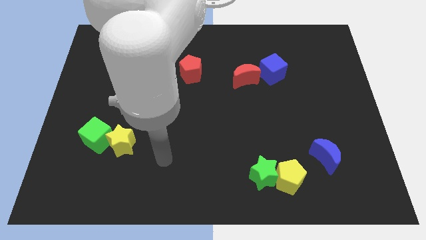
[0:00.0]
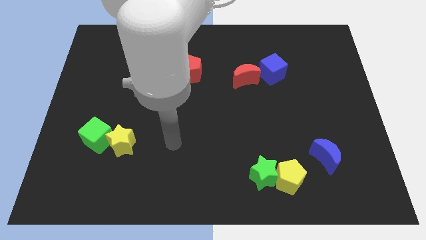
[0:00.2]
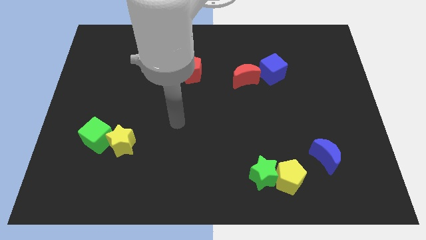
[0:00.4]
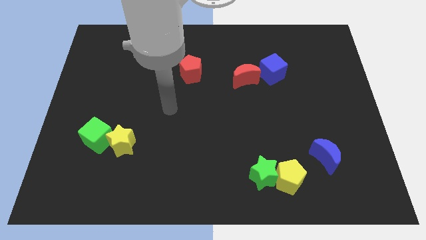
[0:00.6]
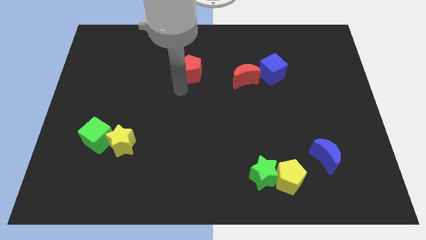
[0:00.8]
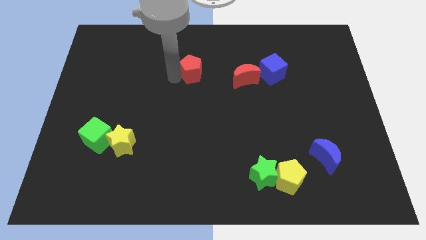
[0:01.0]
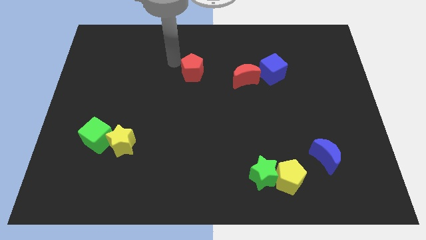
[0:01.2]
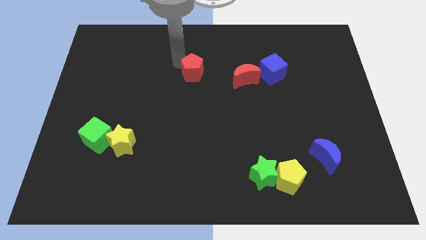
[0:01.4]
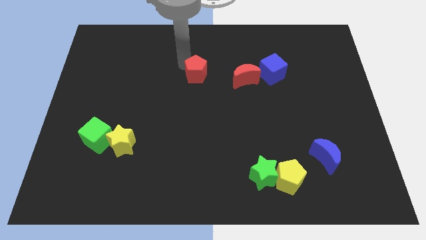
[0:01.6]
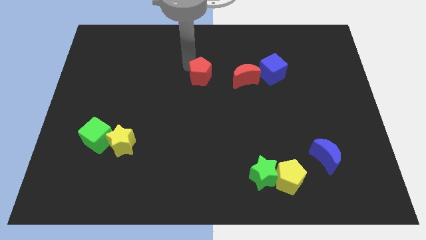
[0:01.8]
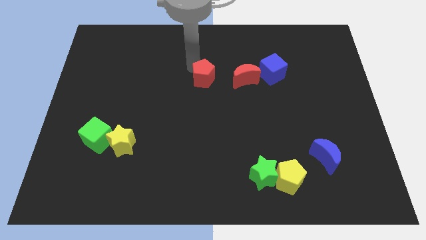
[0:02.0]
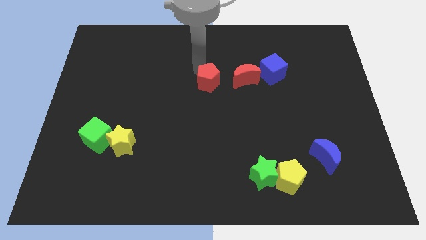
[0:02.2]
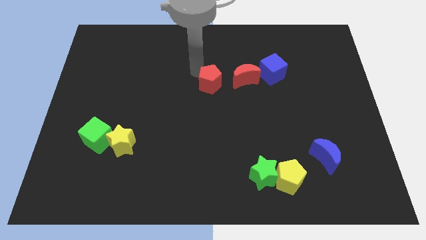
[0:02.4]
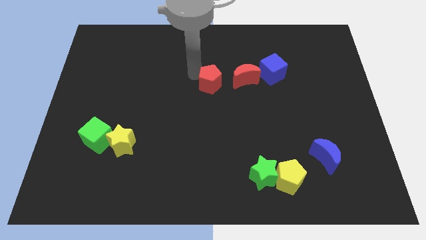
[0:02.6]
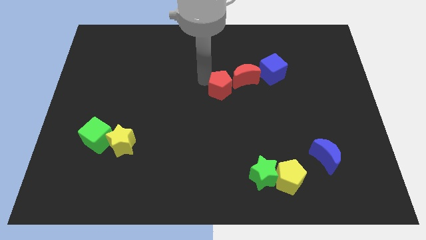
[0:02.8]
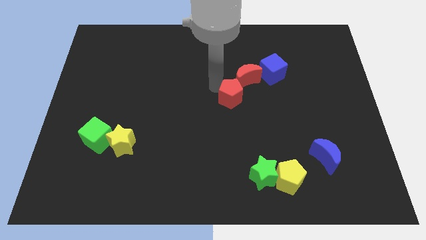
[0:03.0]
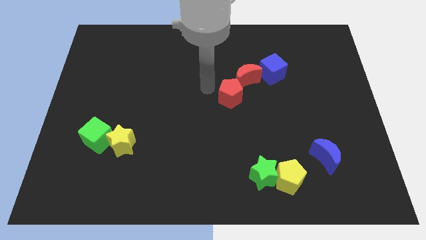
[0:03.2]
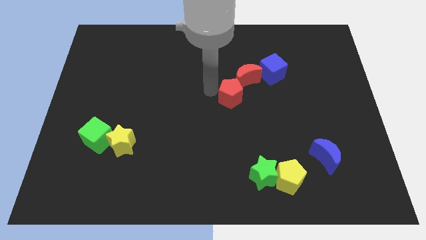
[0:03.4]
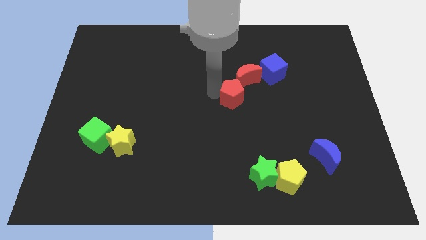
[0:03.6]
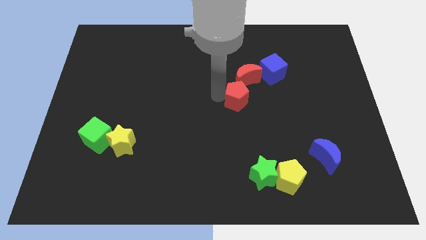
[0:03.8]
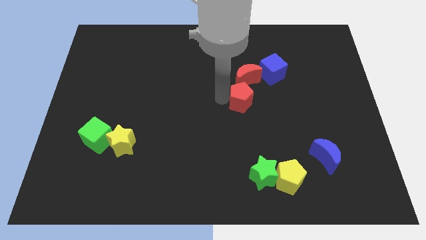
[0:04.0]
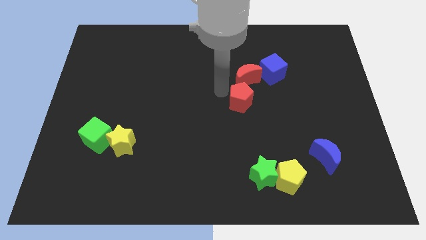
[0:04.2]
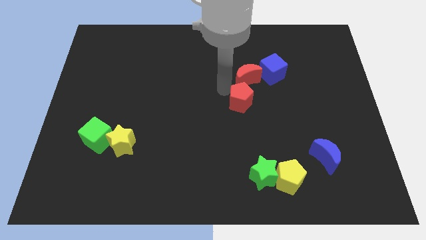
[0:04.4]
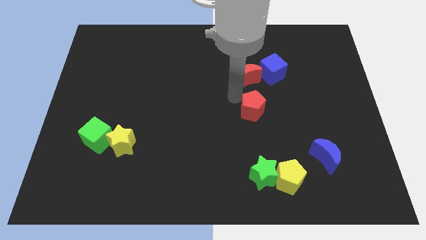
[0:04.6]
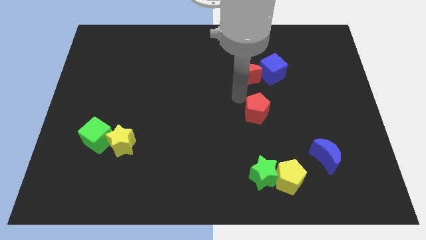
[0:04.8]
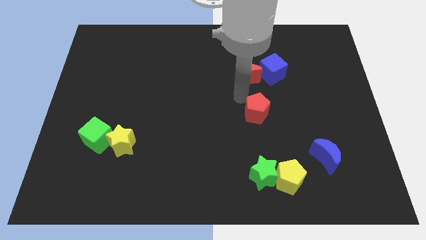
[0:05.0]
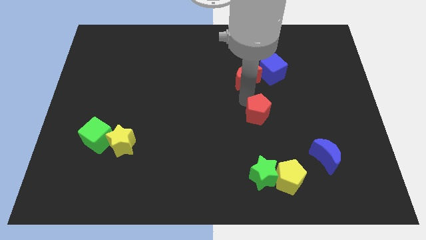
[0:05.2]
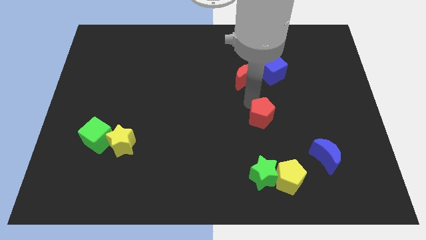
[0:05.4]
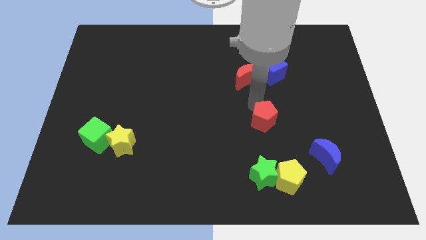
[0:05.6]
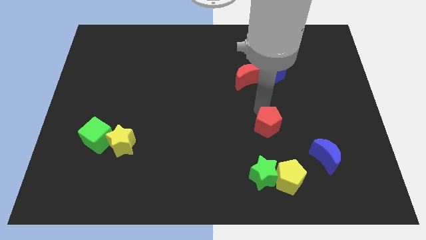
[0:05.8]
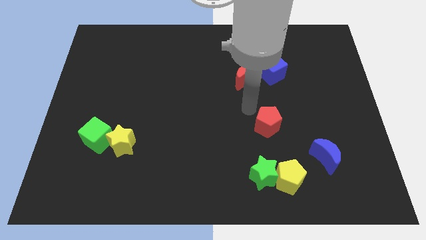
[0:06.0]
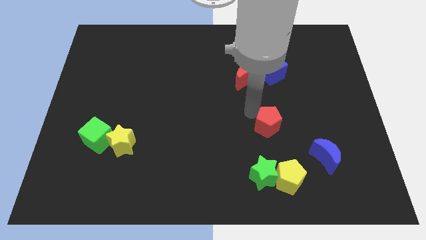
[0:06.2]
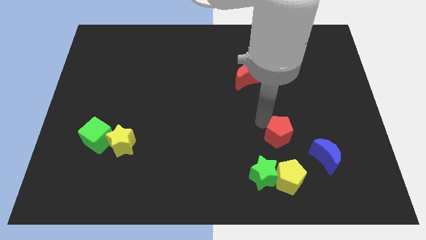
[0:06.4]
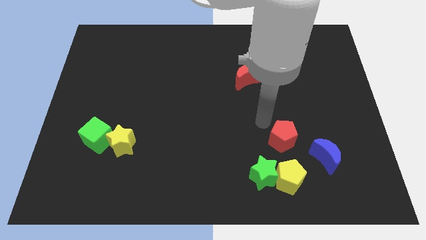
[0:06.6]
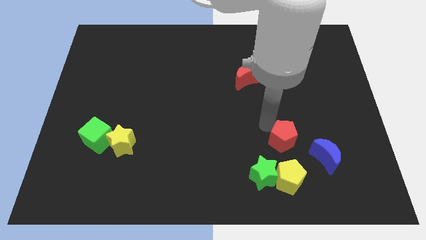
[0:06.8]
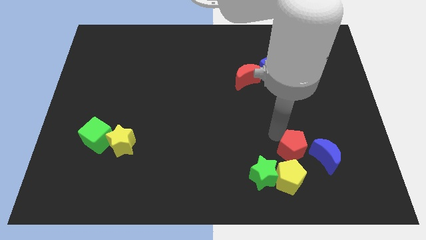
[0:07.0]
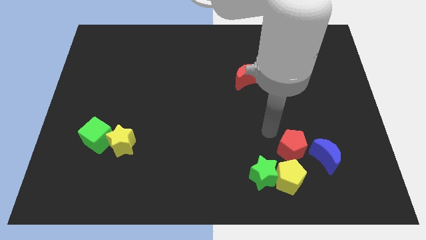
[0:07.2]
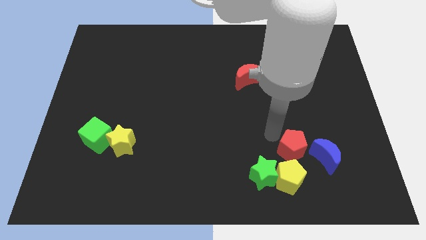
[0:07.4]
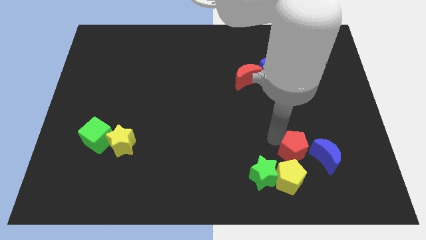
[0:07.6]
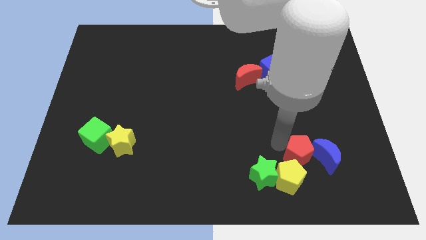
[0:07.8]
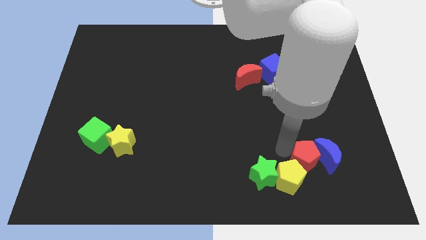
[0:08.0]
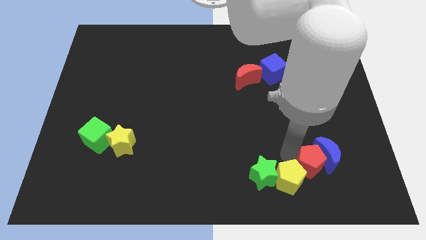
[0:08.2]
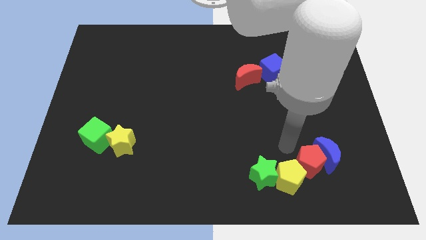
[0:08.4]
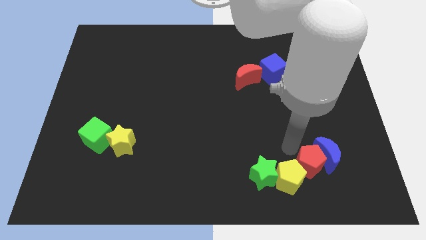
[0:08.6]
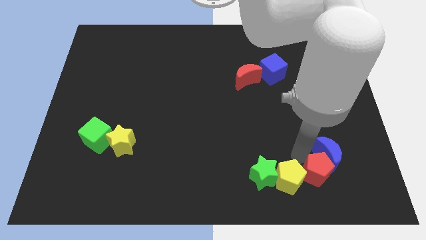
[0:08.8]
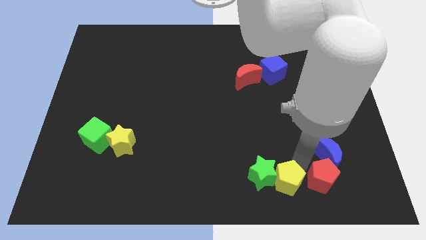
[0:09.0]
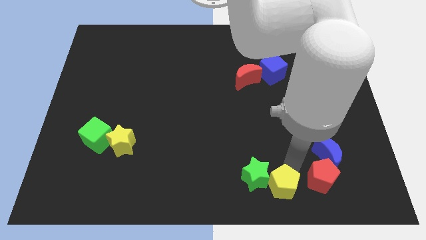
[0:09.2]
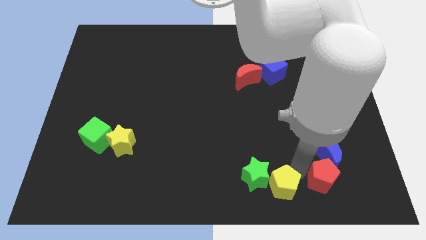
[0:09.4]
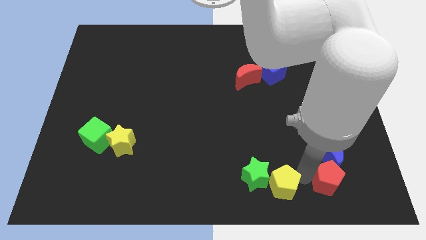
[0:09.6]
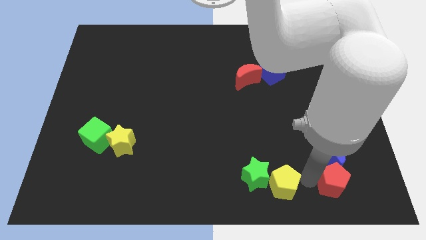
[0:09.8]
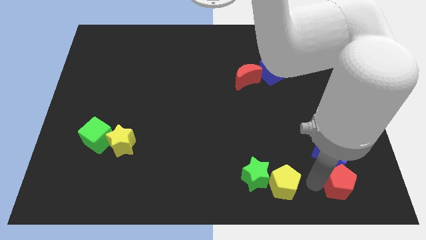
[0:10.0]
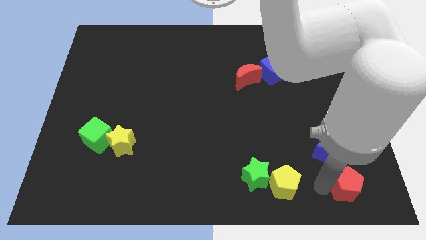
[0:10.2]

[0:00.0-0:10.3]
push the red pentagon to the lower right corner

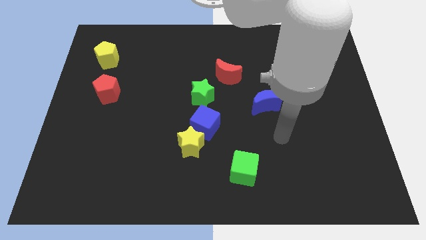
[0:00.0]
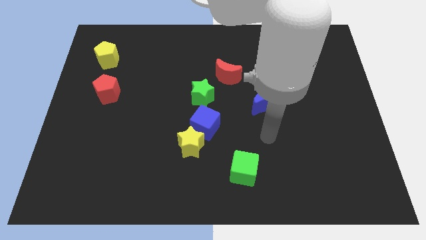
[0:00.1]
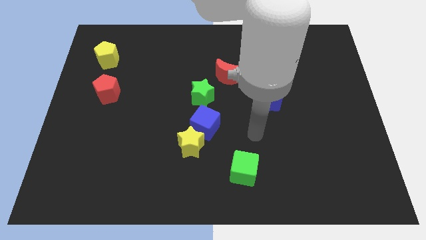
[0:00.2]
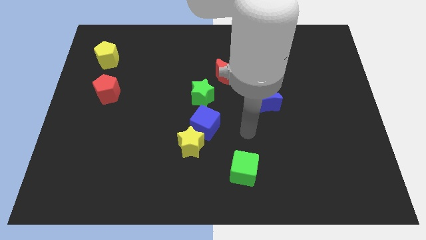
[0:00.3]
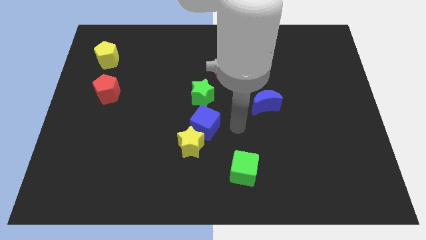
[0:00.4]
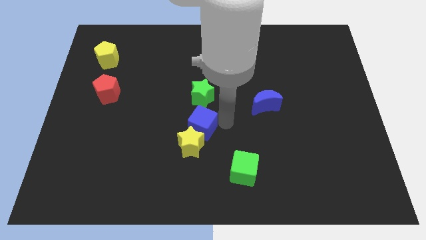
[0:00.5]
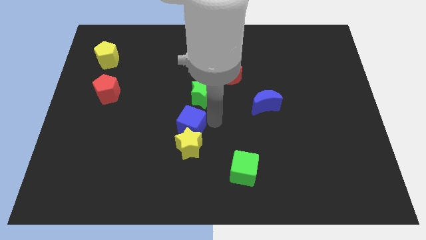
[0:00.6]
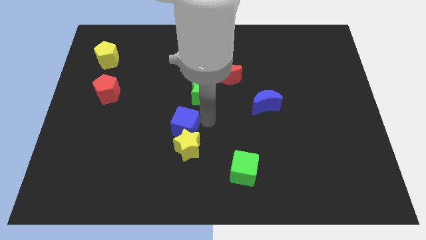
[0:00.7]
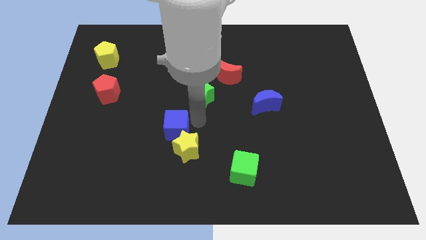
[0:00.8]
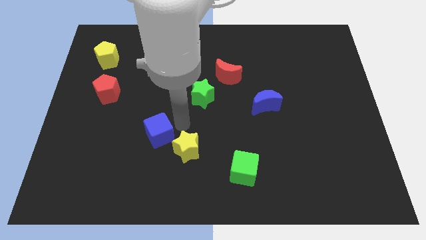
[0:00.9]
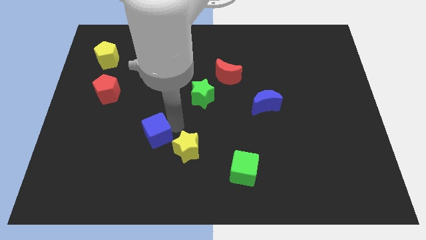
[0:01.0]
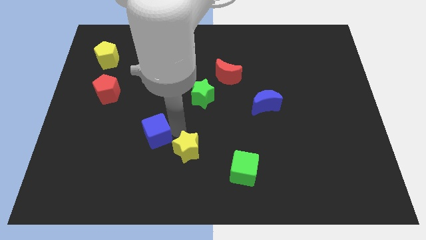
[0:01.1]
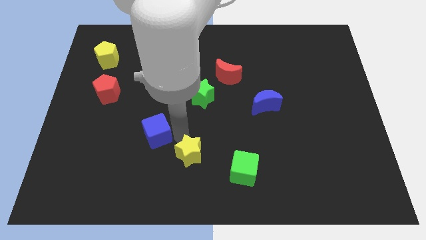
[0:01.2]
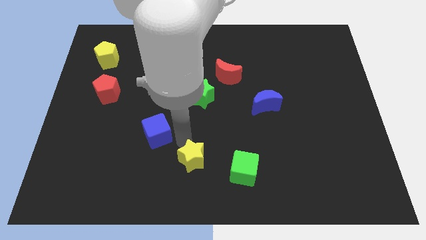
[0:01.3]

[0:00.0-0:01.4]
put the yellow star to the bottom
